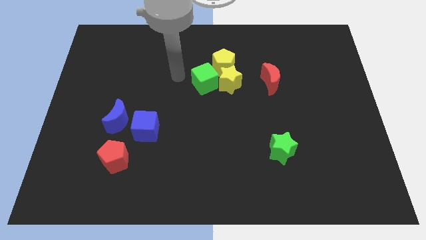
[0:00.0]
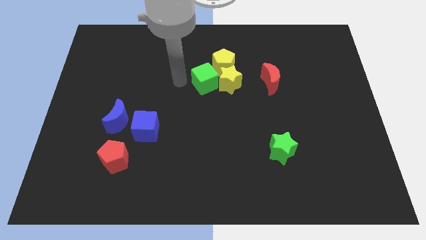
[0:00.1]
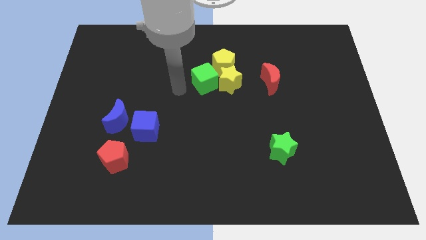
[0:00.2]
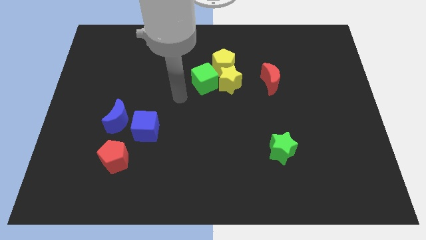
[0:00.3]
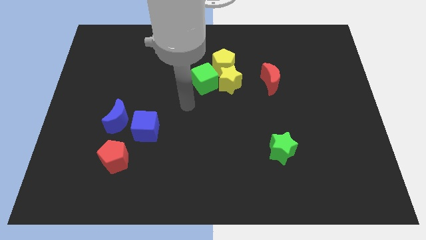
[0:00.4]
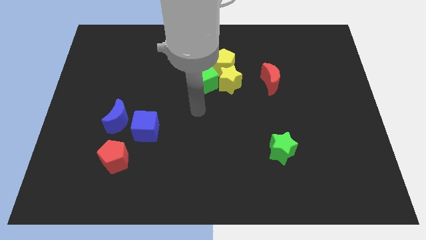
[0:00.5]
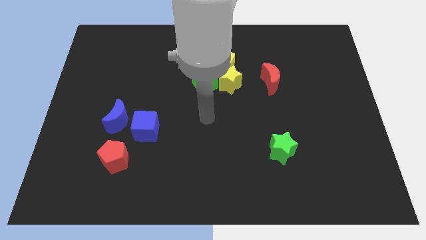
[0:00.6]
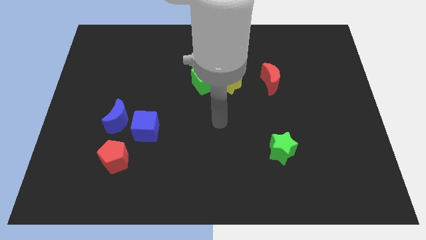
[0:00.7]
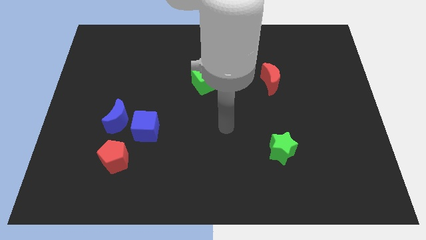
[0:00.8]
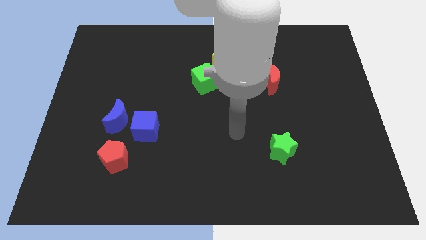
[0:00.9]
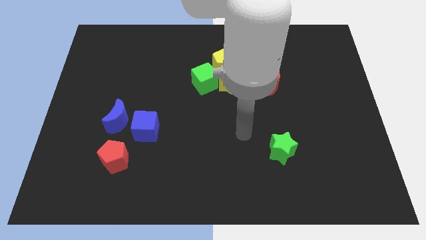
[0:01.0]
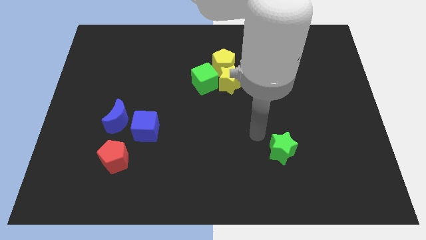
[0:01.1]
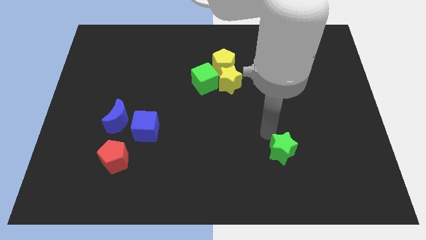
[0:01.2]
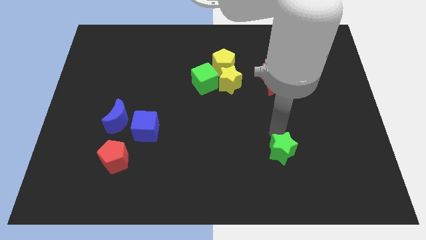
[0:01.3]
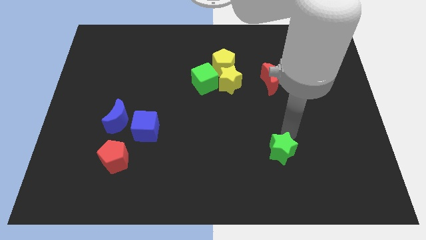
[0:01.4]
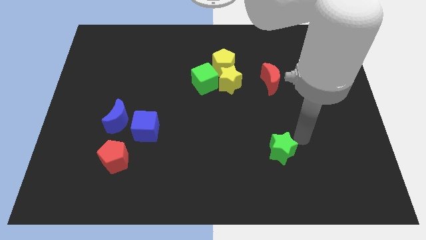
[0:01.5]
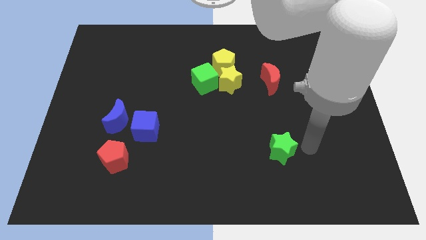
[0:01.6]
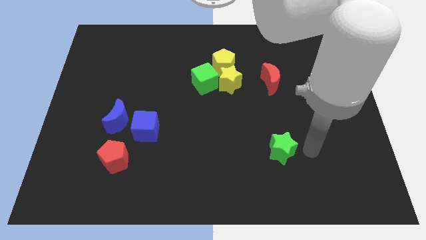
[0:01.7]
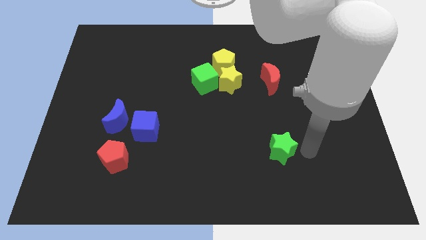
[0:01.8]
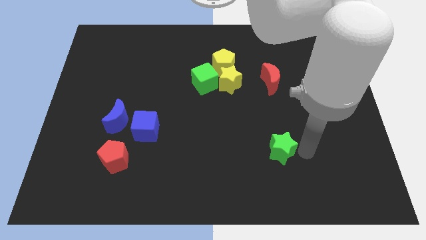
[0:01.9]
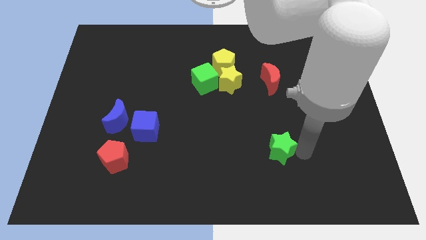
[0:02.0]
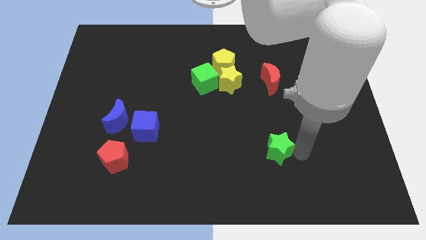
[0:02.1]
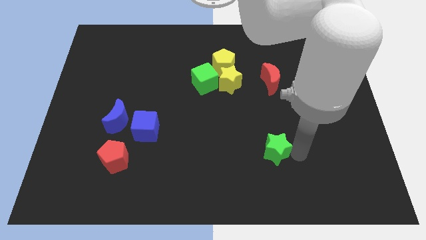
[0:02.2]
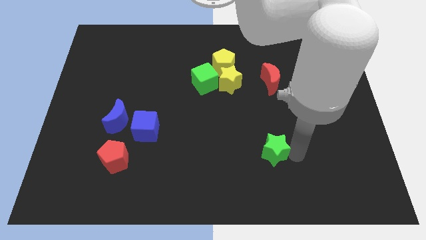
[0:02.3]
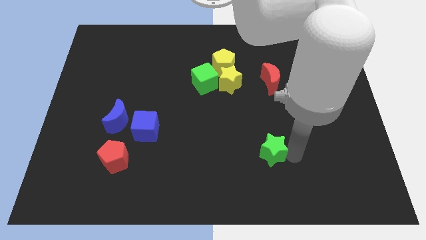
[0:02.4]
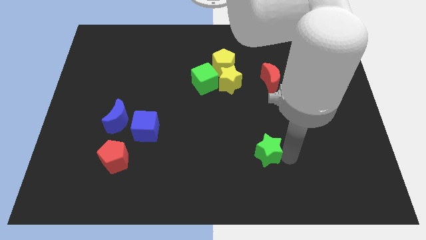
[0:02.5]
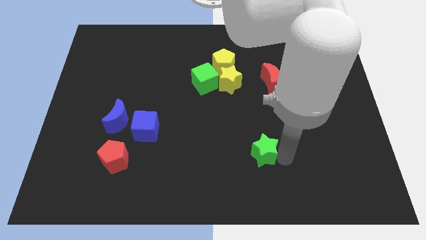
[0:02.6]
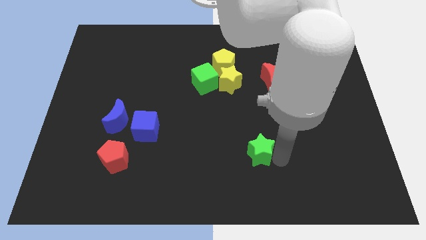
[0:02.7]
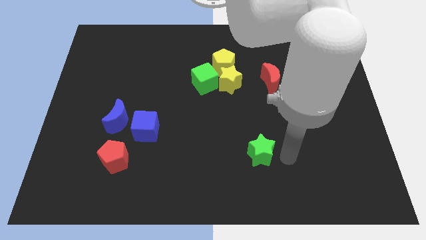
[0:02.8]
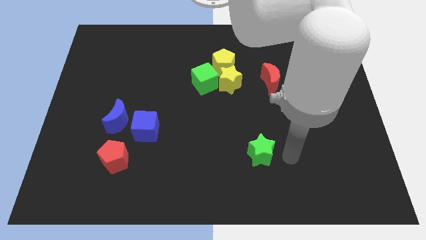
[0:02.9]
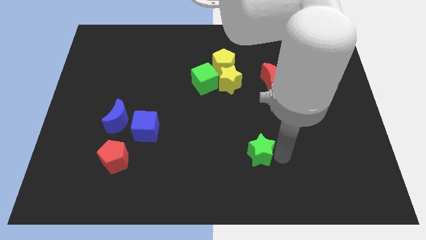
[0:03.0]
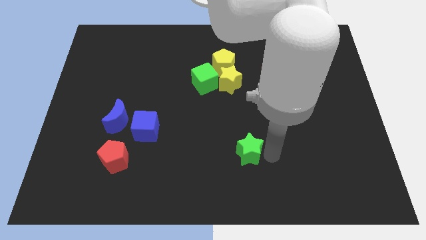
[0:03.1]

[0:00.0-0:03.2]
slightly slide the green star left

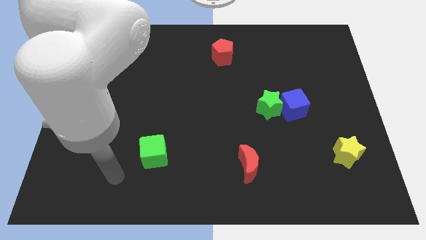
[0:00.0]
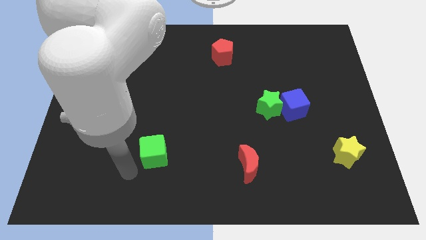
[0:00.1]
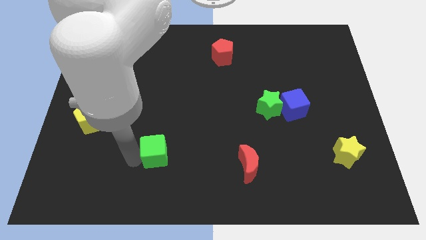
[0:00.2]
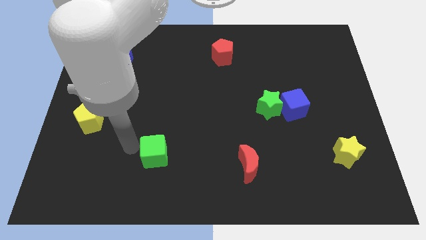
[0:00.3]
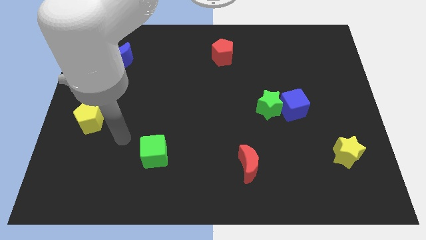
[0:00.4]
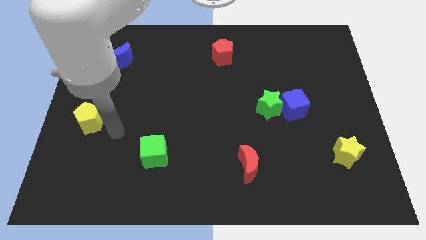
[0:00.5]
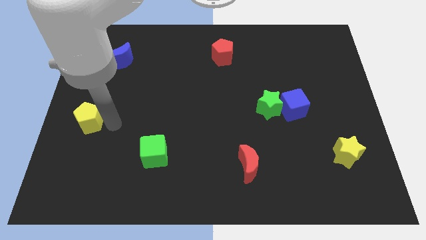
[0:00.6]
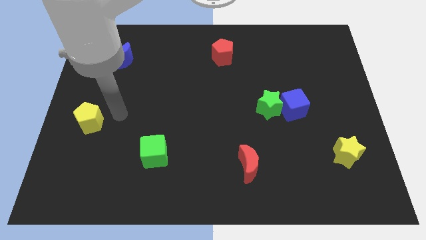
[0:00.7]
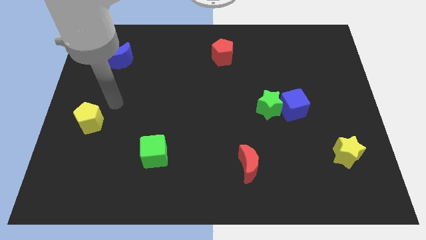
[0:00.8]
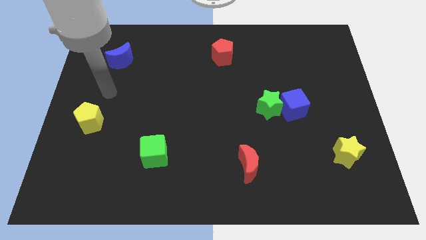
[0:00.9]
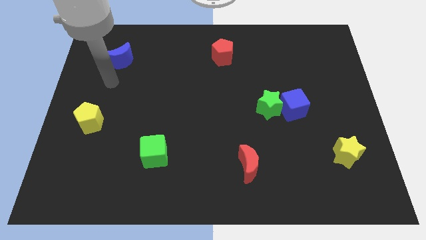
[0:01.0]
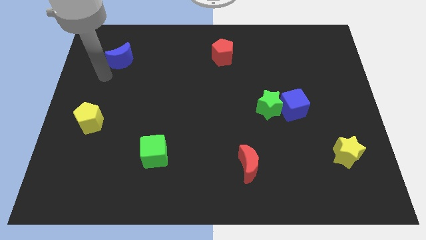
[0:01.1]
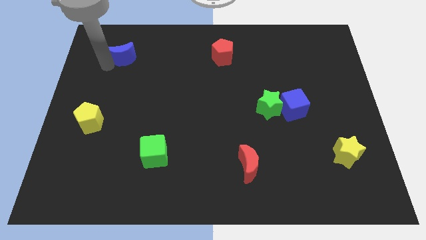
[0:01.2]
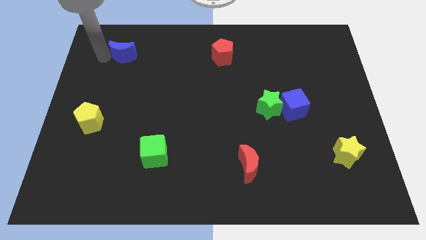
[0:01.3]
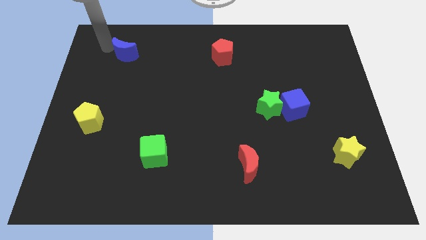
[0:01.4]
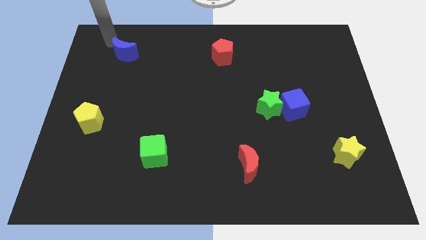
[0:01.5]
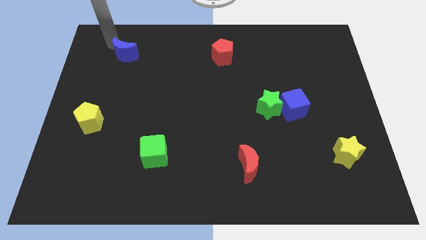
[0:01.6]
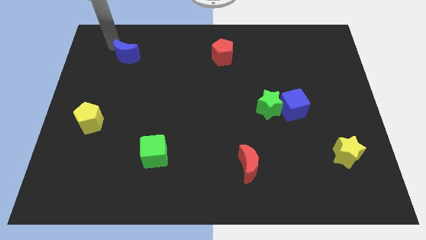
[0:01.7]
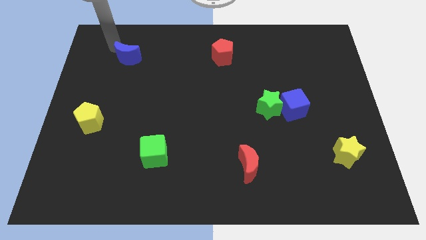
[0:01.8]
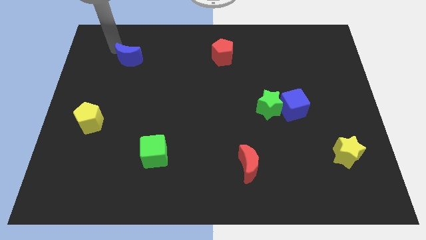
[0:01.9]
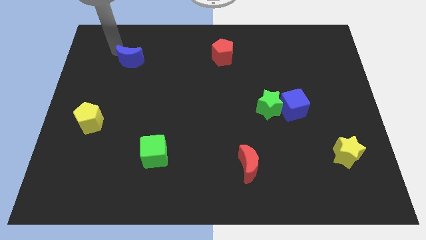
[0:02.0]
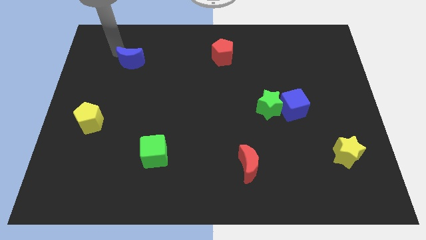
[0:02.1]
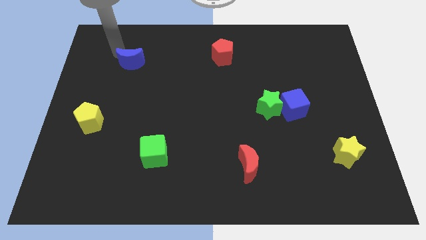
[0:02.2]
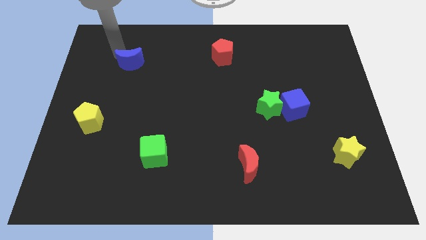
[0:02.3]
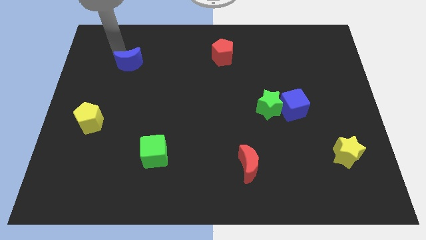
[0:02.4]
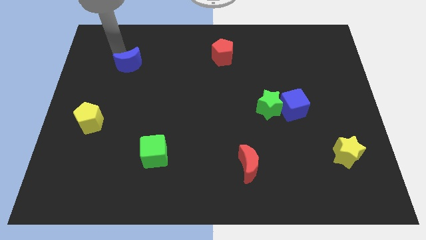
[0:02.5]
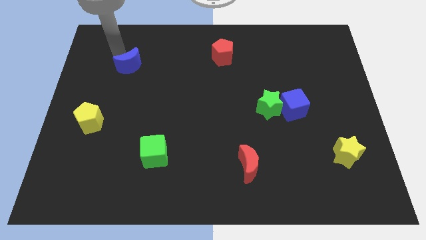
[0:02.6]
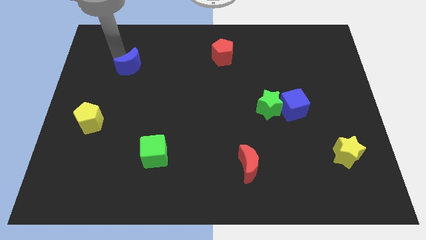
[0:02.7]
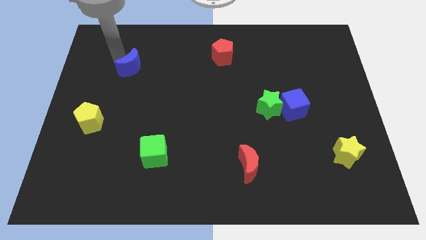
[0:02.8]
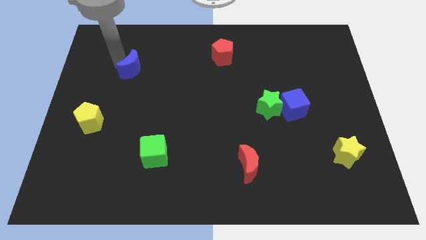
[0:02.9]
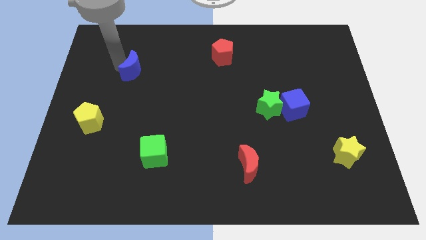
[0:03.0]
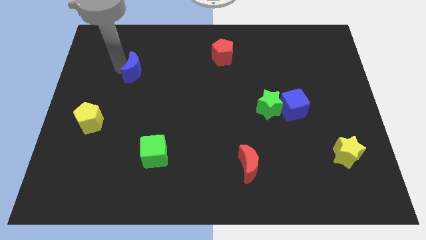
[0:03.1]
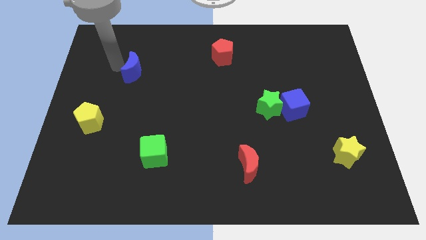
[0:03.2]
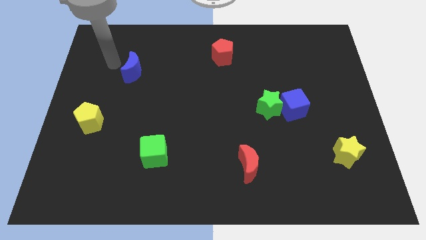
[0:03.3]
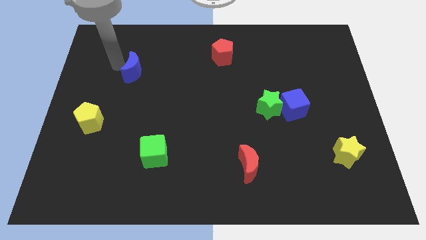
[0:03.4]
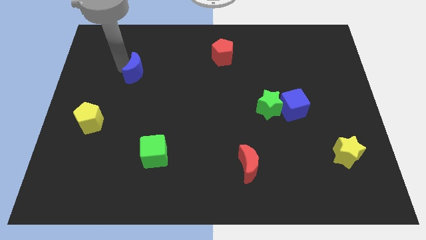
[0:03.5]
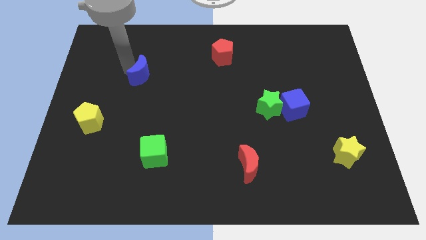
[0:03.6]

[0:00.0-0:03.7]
slightly slide the blue moon downwards and right

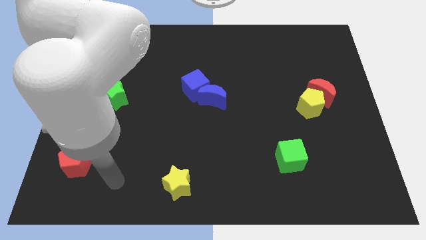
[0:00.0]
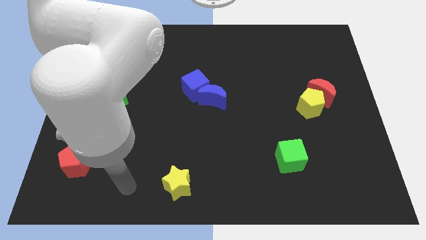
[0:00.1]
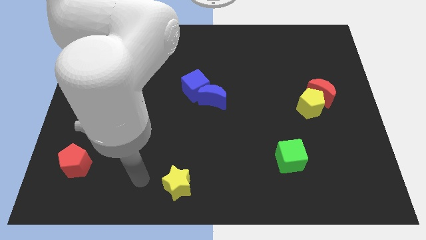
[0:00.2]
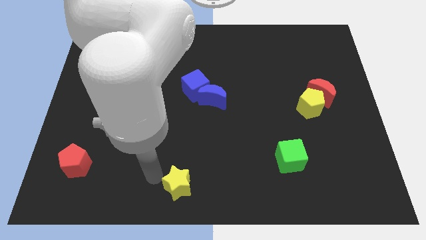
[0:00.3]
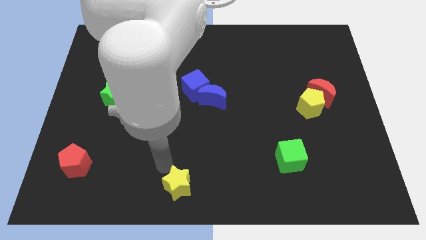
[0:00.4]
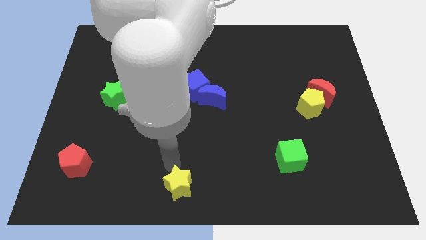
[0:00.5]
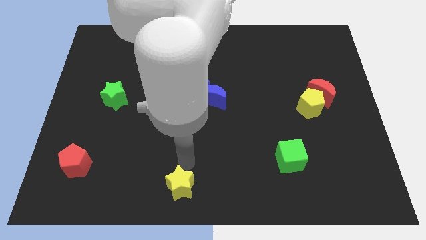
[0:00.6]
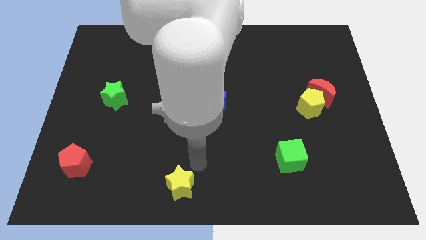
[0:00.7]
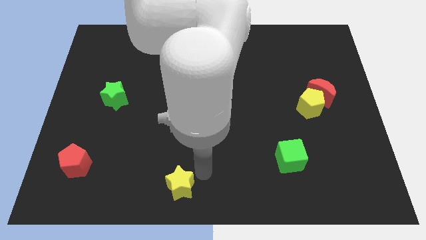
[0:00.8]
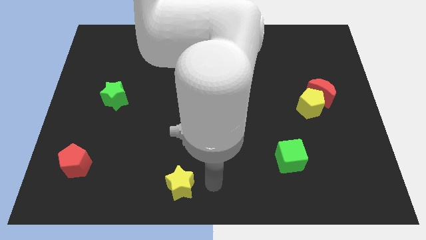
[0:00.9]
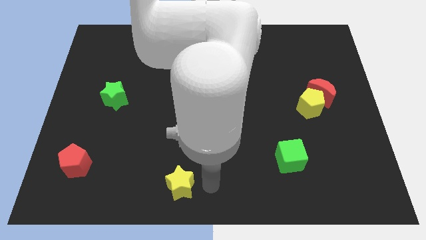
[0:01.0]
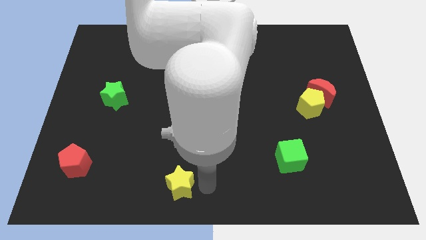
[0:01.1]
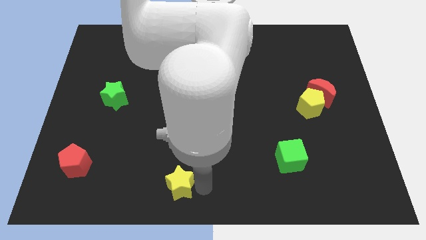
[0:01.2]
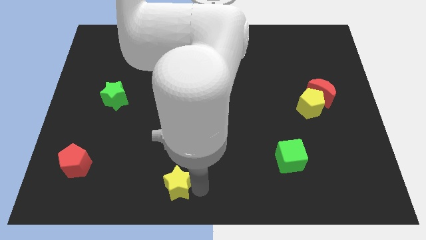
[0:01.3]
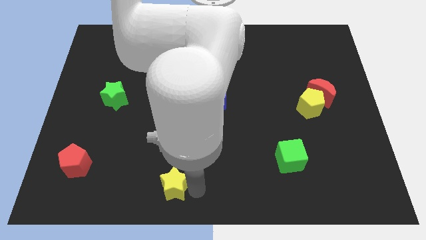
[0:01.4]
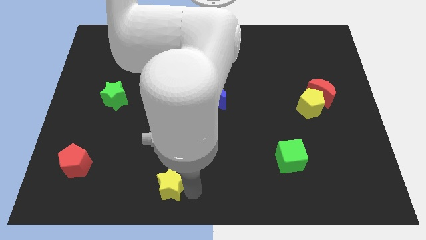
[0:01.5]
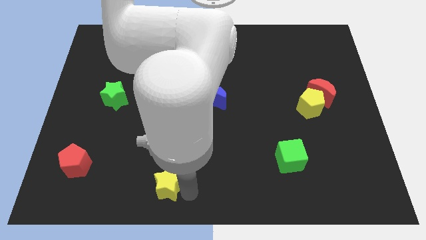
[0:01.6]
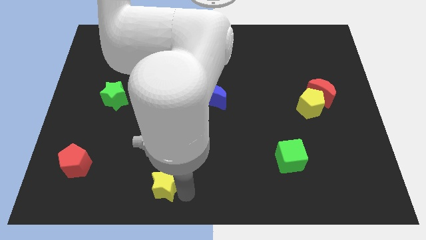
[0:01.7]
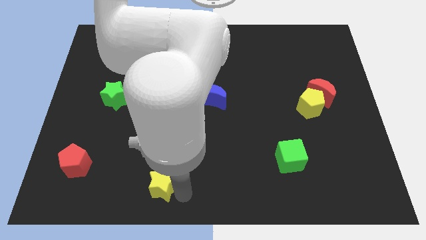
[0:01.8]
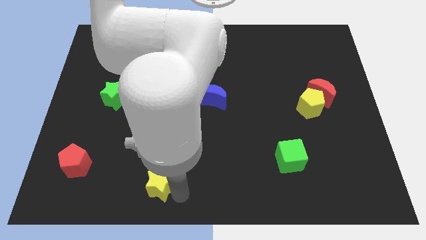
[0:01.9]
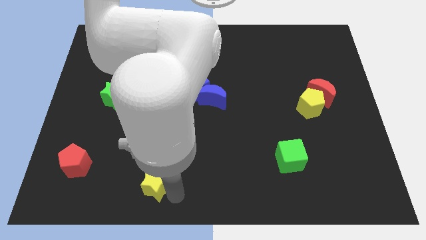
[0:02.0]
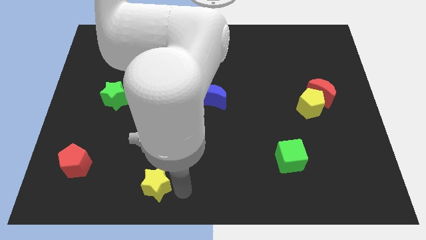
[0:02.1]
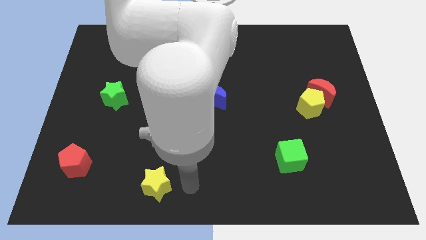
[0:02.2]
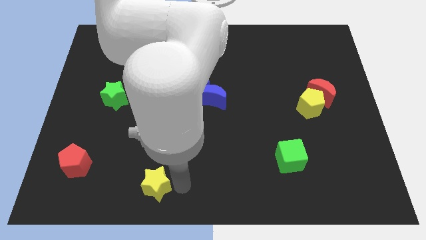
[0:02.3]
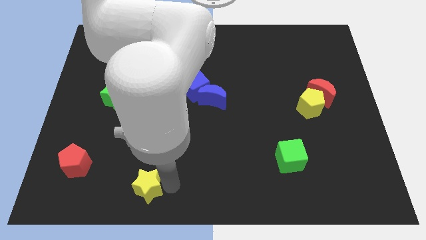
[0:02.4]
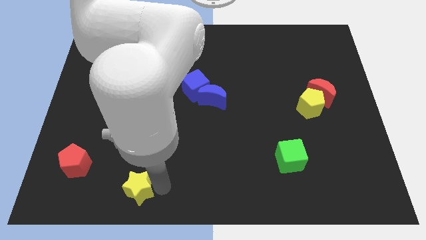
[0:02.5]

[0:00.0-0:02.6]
slide the yellow star left a little bit
